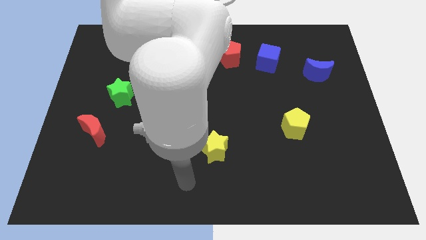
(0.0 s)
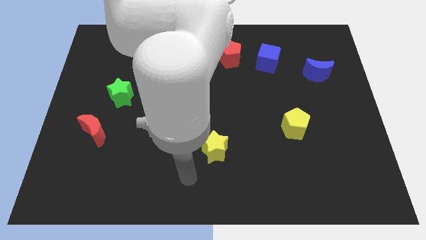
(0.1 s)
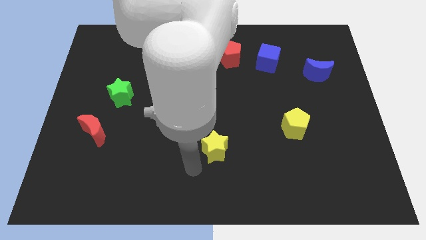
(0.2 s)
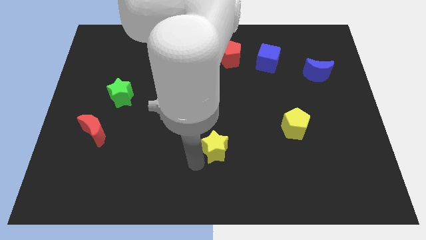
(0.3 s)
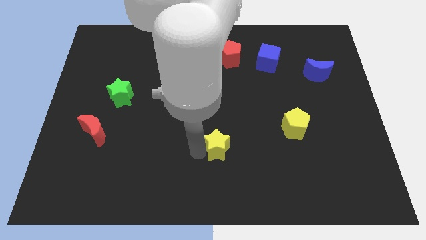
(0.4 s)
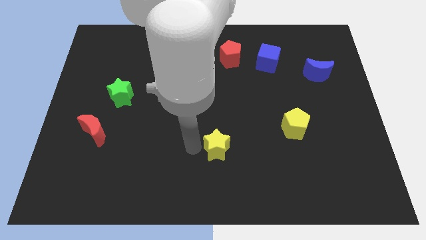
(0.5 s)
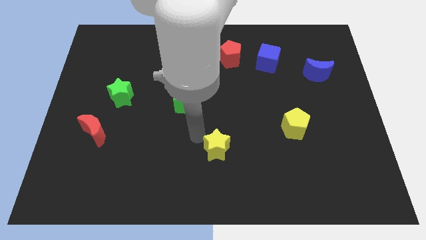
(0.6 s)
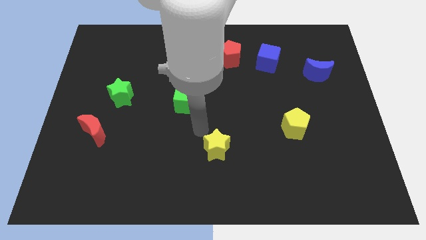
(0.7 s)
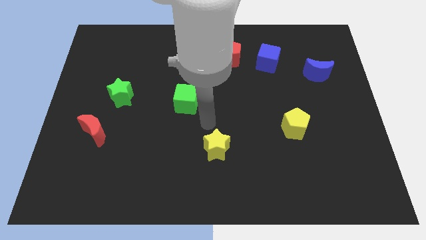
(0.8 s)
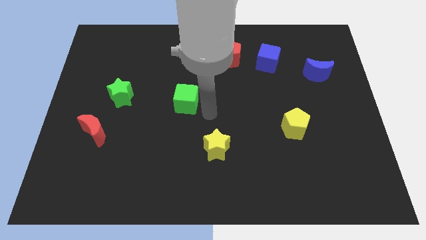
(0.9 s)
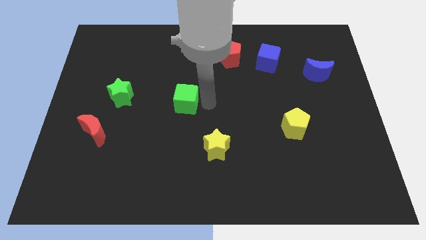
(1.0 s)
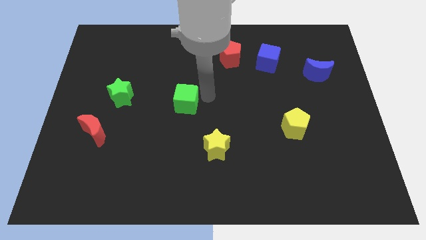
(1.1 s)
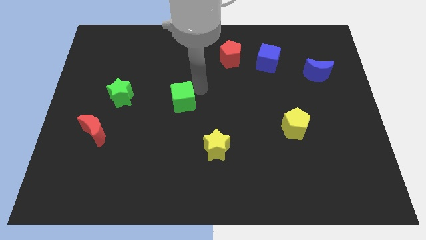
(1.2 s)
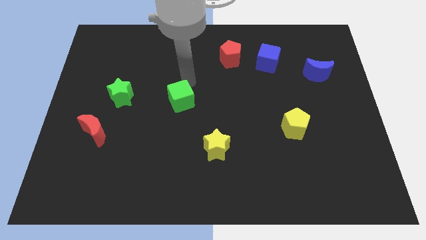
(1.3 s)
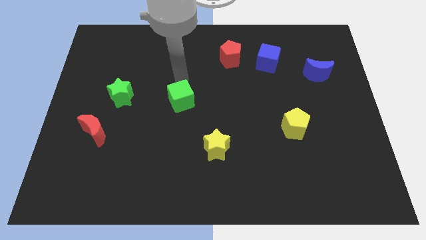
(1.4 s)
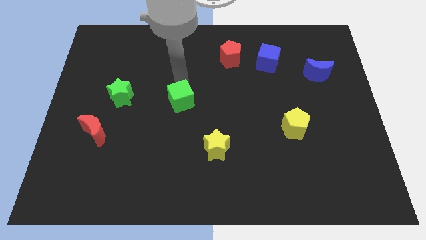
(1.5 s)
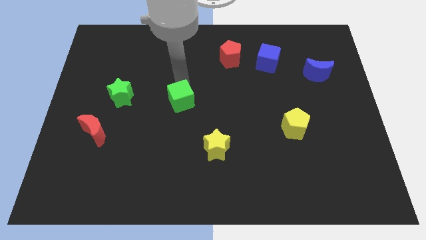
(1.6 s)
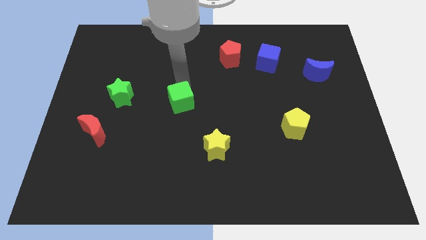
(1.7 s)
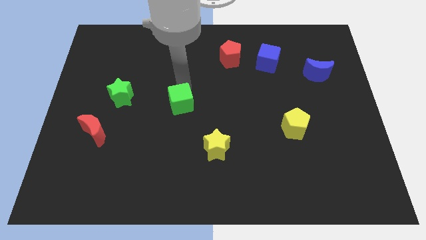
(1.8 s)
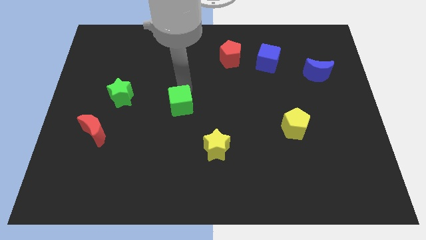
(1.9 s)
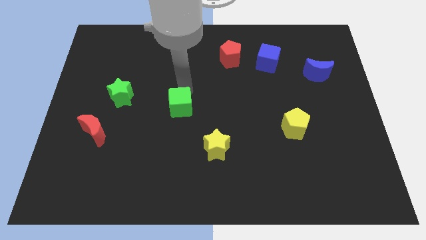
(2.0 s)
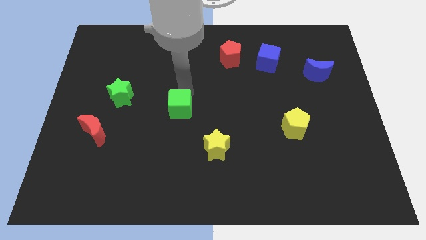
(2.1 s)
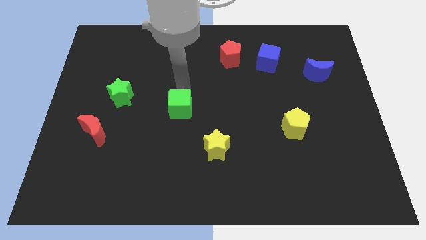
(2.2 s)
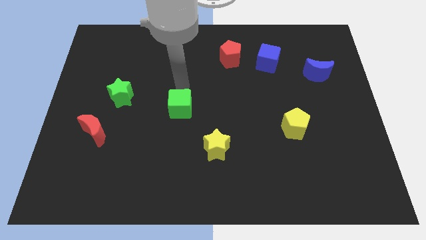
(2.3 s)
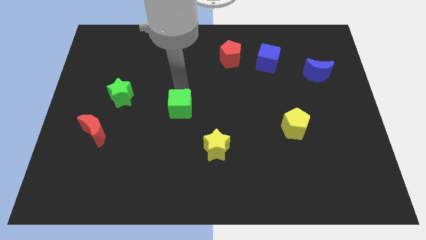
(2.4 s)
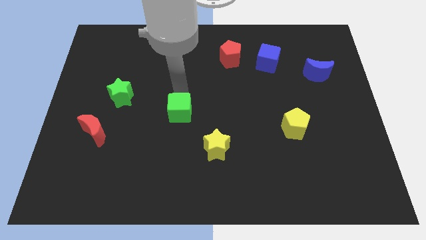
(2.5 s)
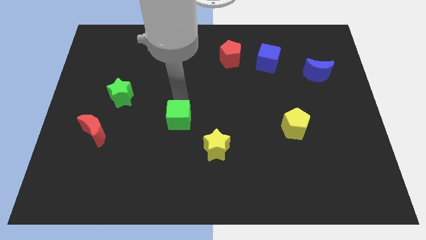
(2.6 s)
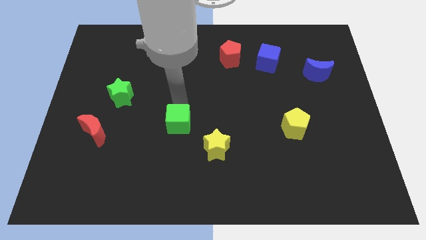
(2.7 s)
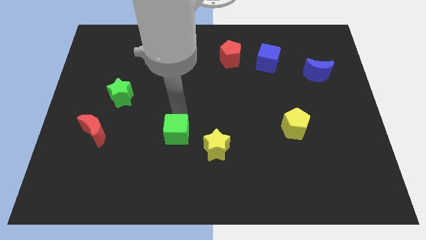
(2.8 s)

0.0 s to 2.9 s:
move the green cube a little bit downwards

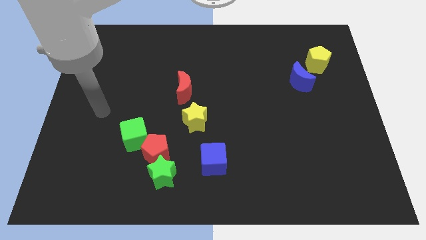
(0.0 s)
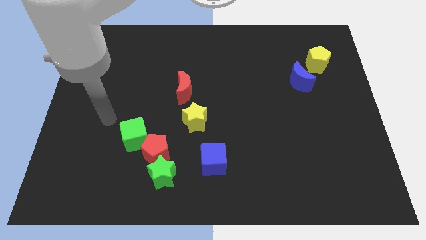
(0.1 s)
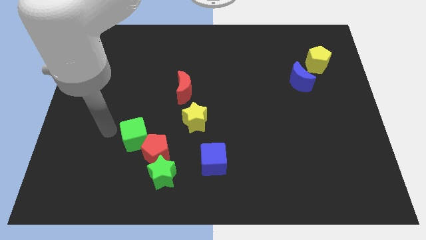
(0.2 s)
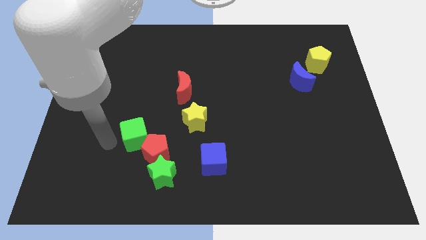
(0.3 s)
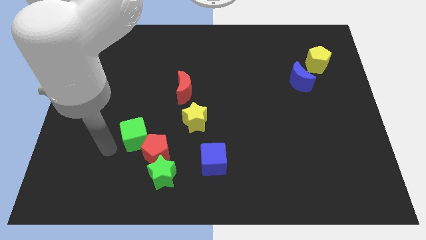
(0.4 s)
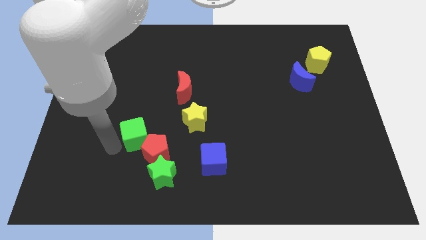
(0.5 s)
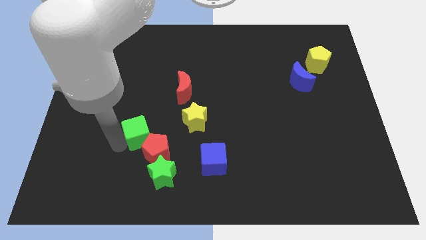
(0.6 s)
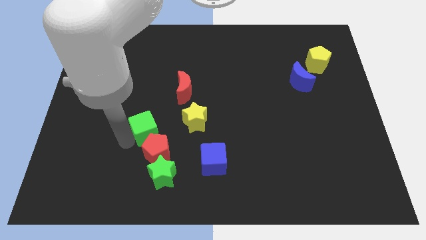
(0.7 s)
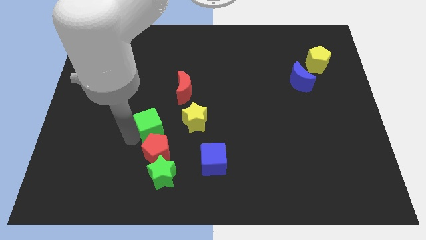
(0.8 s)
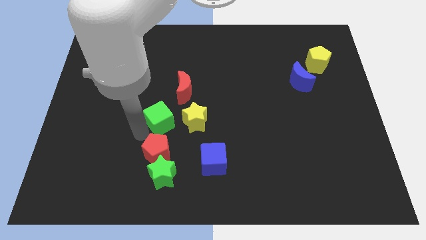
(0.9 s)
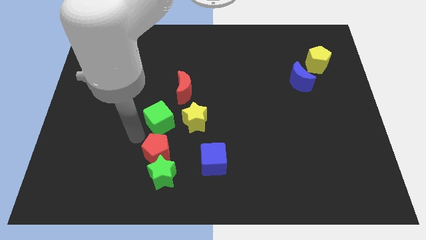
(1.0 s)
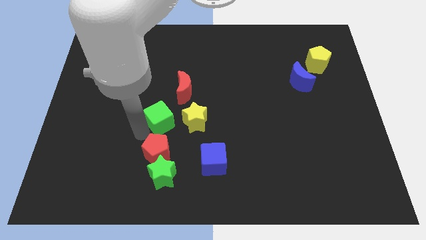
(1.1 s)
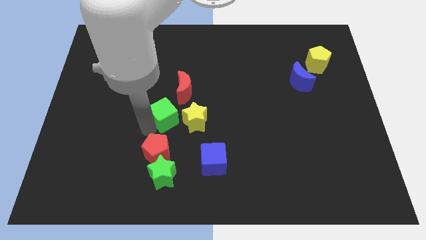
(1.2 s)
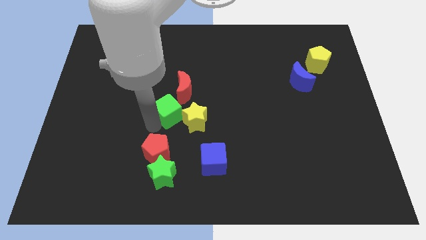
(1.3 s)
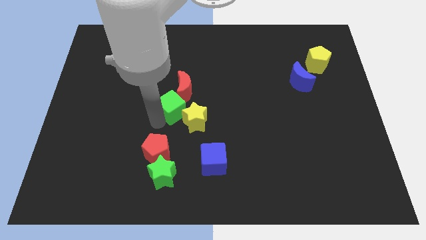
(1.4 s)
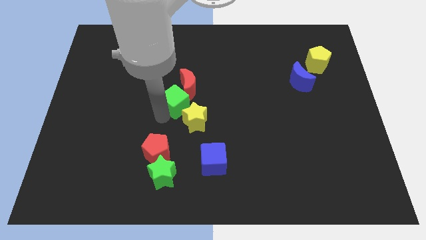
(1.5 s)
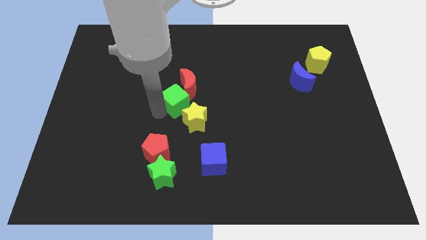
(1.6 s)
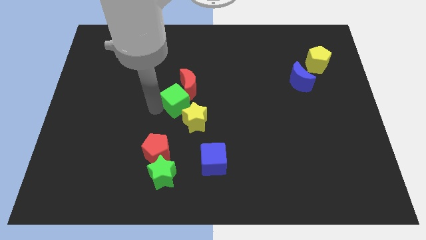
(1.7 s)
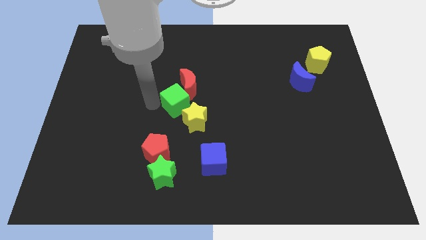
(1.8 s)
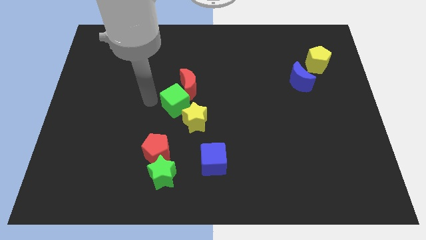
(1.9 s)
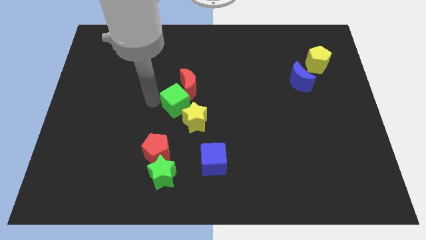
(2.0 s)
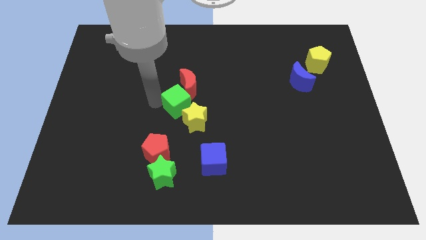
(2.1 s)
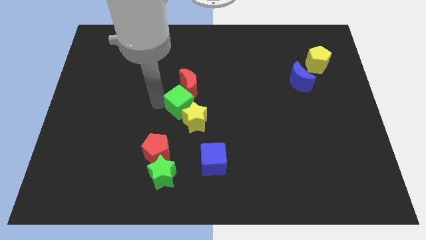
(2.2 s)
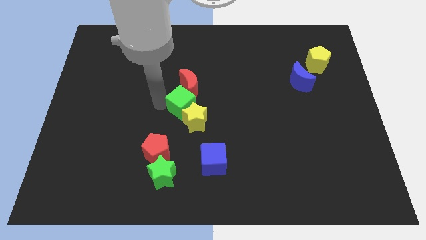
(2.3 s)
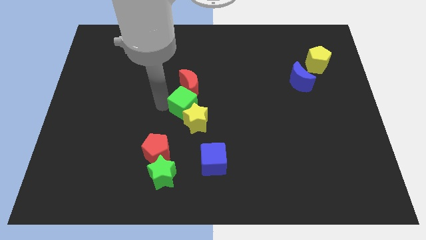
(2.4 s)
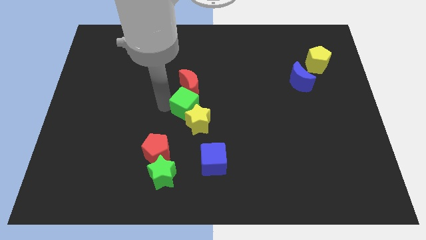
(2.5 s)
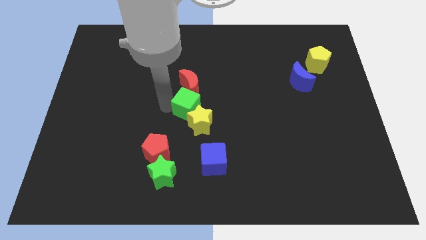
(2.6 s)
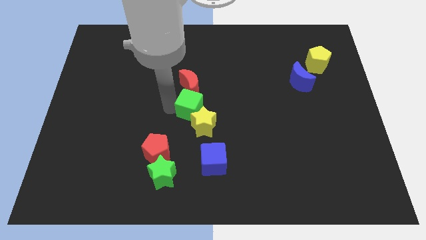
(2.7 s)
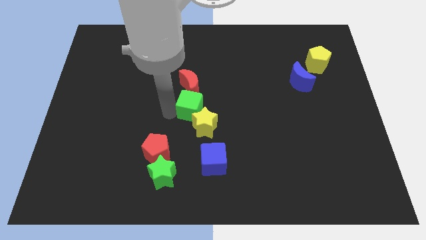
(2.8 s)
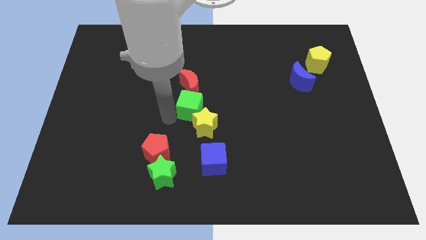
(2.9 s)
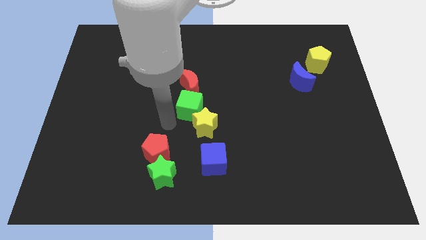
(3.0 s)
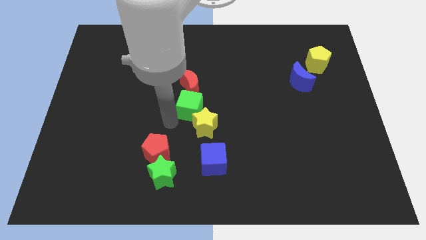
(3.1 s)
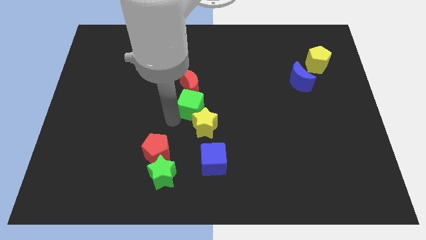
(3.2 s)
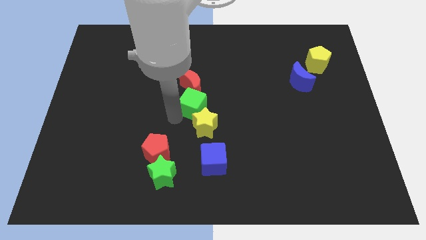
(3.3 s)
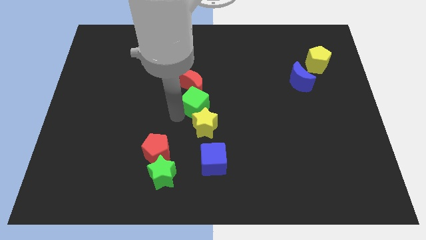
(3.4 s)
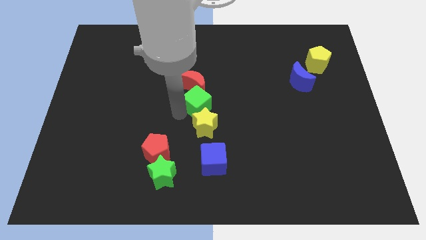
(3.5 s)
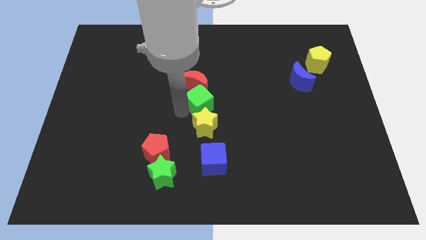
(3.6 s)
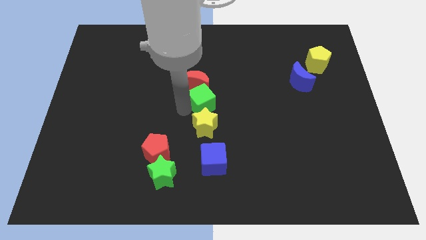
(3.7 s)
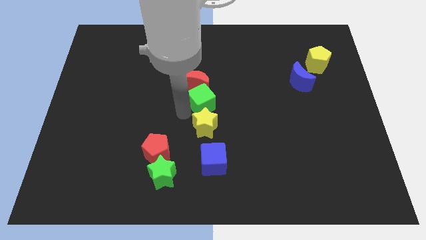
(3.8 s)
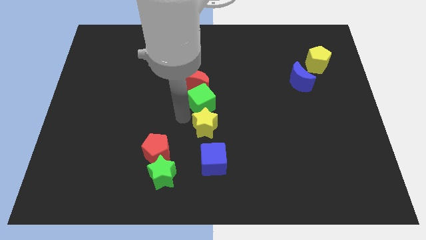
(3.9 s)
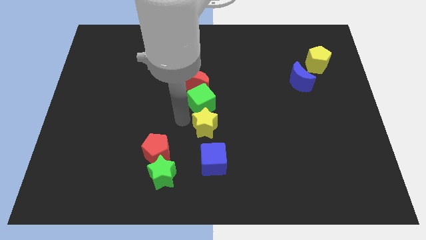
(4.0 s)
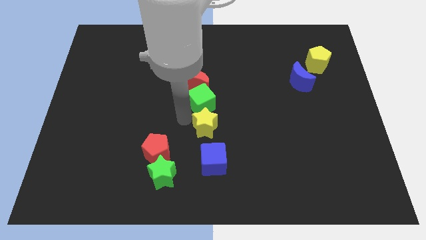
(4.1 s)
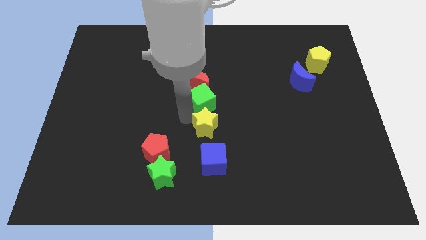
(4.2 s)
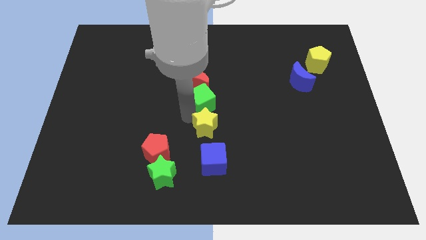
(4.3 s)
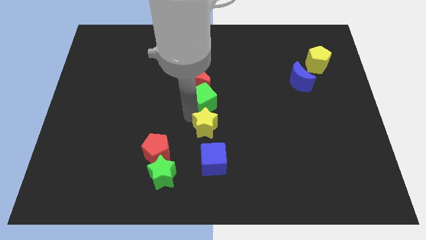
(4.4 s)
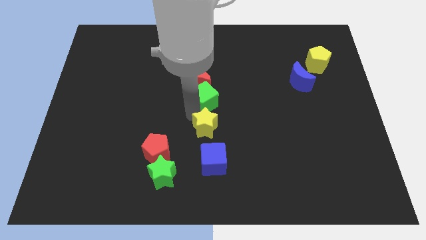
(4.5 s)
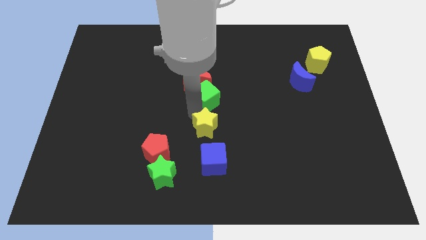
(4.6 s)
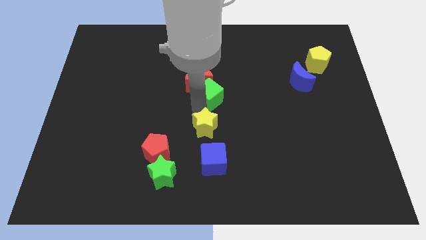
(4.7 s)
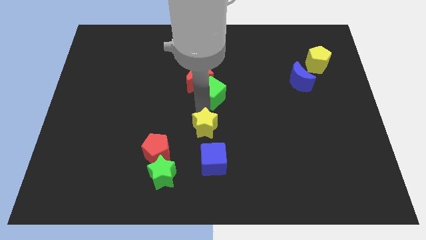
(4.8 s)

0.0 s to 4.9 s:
push the green cube diagonally up and right
